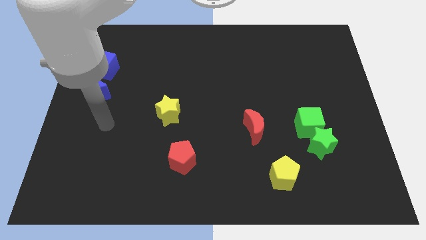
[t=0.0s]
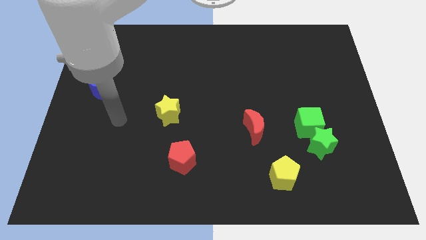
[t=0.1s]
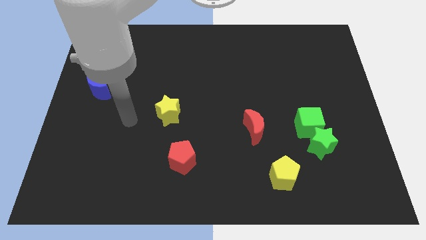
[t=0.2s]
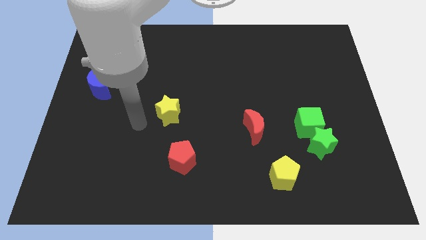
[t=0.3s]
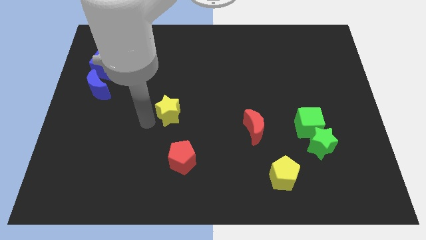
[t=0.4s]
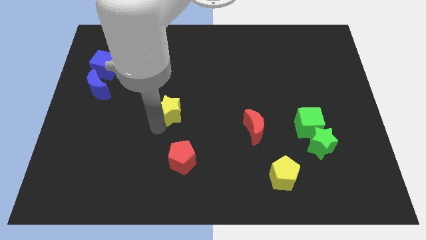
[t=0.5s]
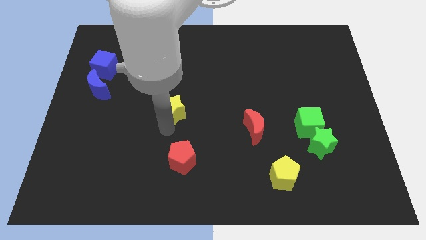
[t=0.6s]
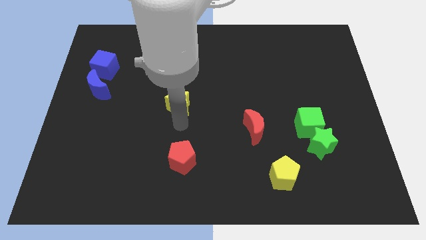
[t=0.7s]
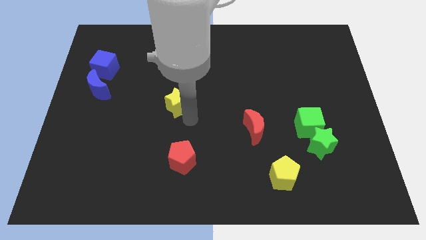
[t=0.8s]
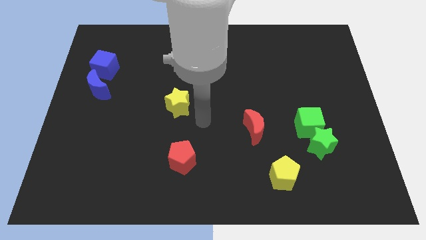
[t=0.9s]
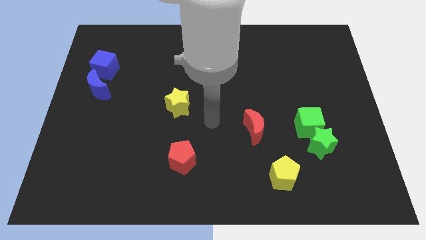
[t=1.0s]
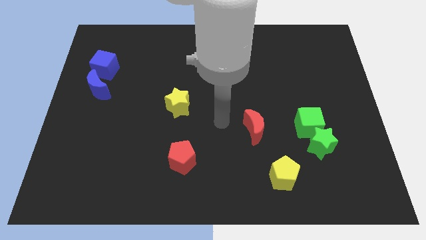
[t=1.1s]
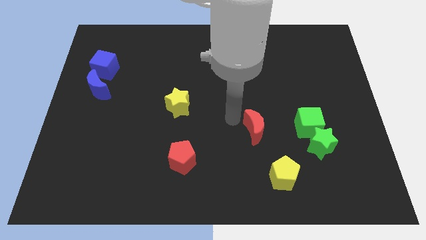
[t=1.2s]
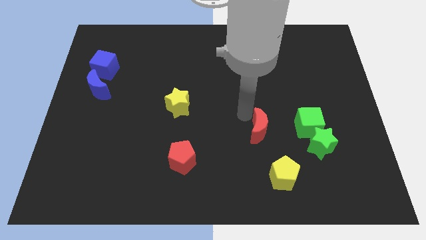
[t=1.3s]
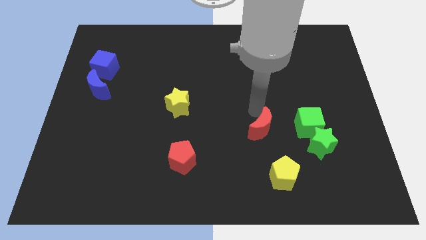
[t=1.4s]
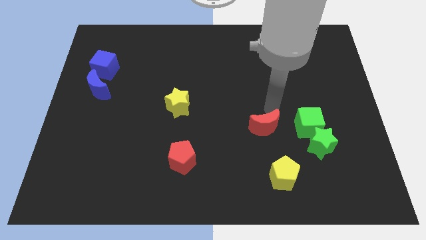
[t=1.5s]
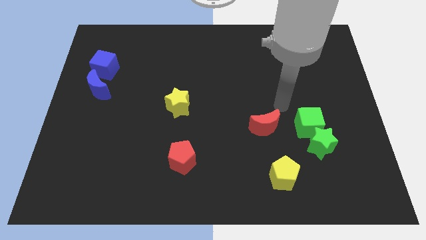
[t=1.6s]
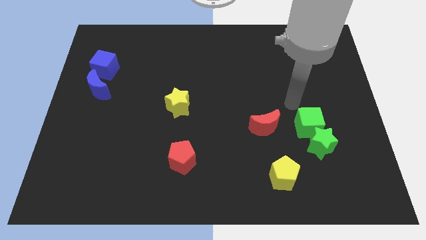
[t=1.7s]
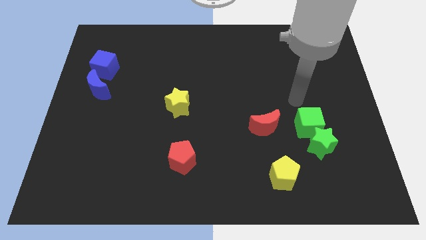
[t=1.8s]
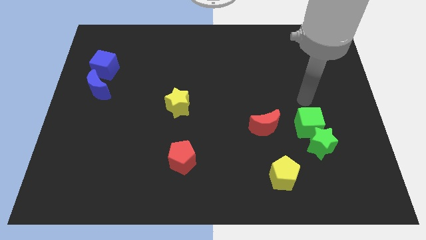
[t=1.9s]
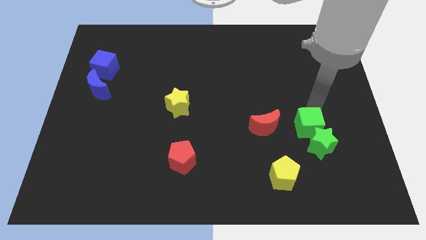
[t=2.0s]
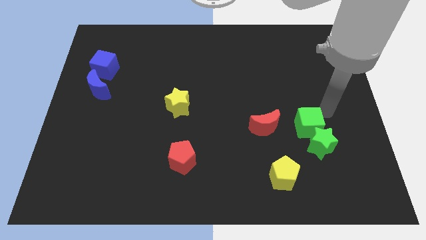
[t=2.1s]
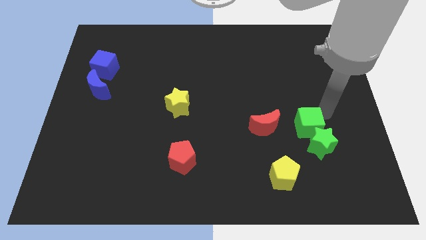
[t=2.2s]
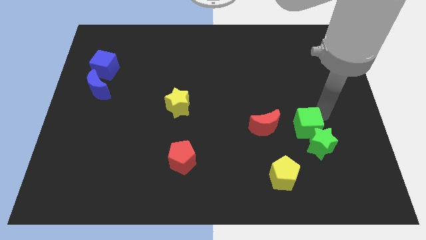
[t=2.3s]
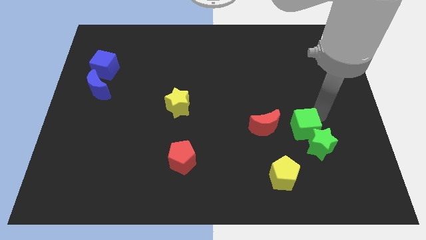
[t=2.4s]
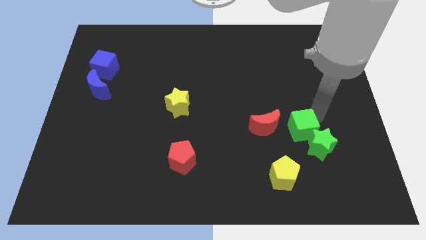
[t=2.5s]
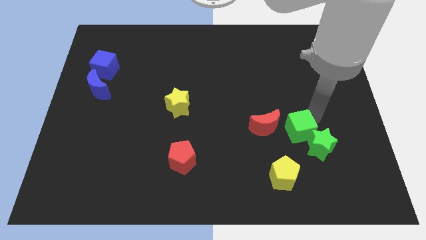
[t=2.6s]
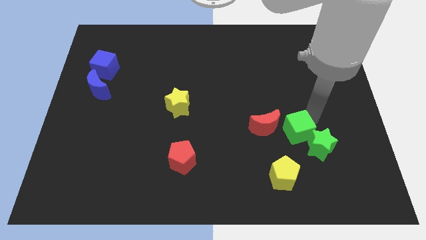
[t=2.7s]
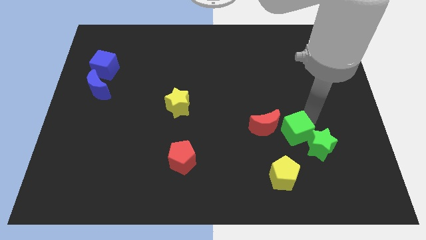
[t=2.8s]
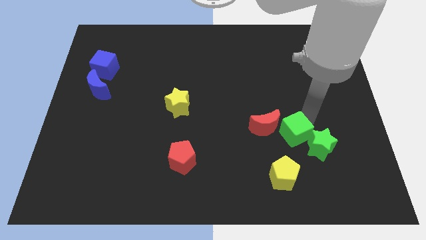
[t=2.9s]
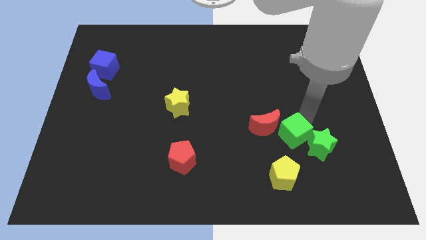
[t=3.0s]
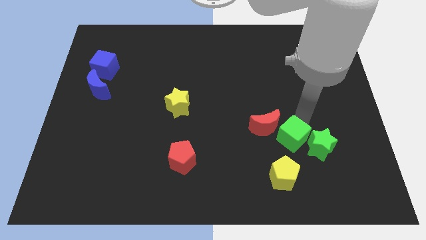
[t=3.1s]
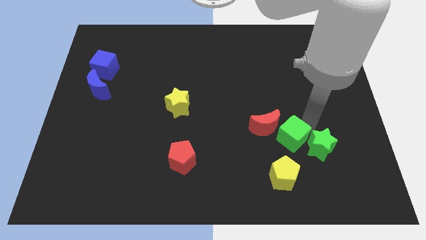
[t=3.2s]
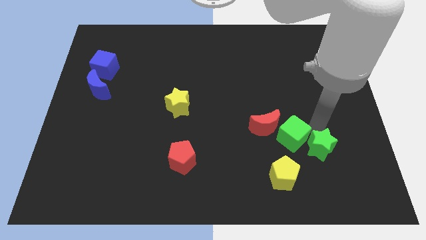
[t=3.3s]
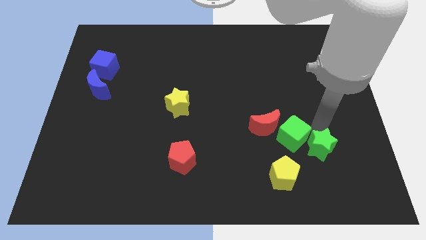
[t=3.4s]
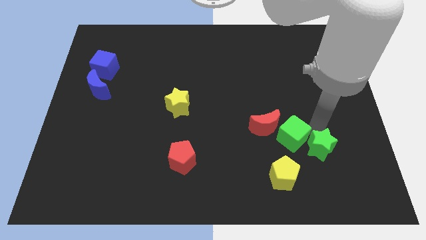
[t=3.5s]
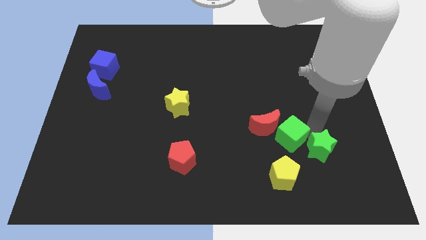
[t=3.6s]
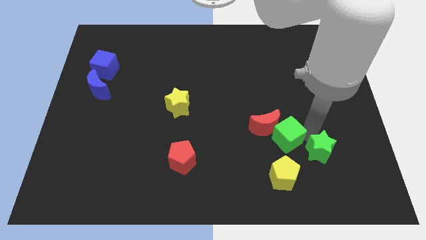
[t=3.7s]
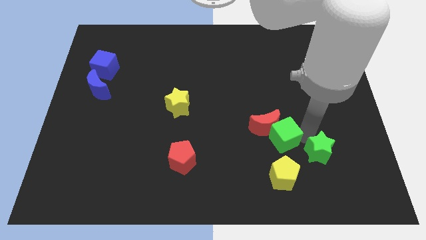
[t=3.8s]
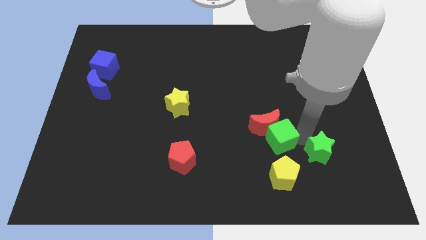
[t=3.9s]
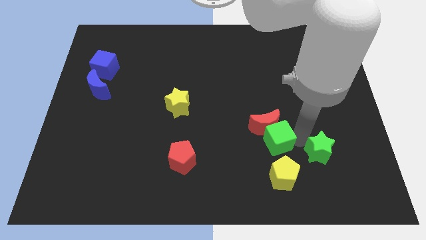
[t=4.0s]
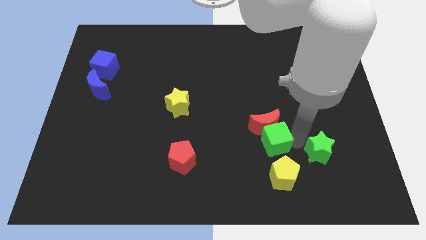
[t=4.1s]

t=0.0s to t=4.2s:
push the green cube left a bit

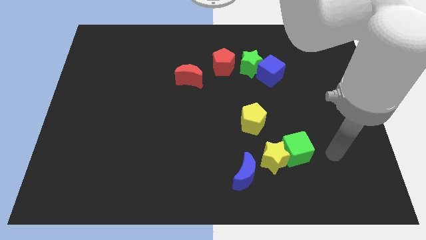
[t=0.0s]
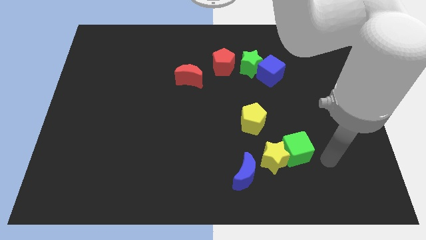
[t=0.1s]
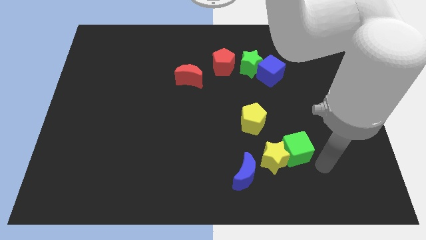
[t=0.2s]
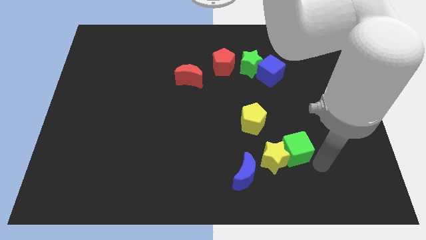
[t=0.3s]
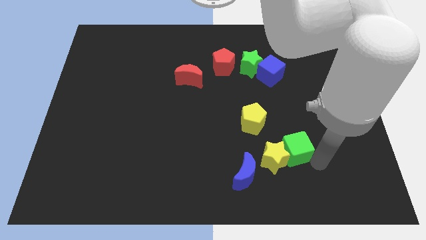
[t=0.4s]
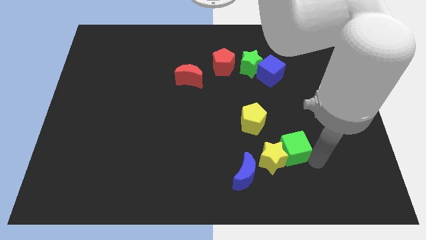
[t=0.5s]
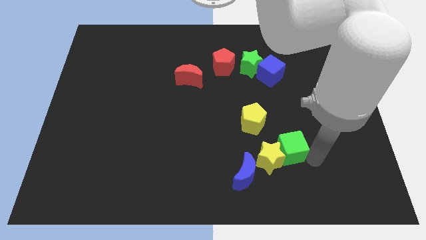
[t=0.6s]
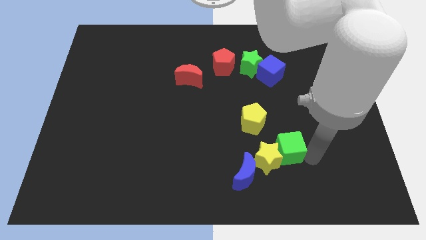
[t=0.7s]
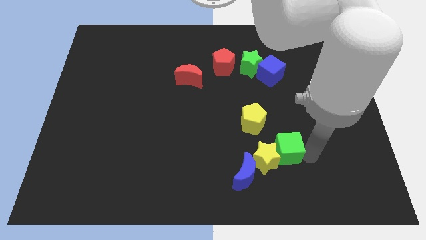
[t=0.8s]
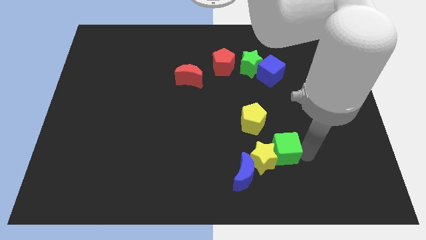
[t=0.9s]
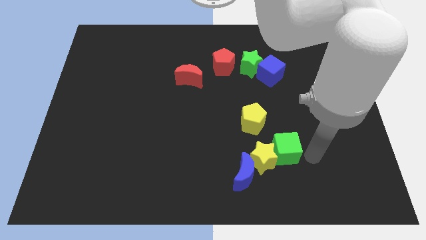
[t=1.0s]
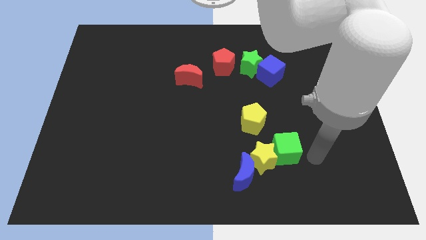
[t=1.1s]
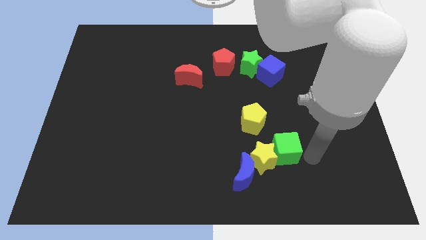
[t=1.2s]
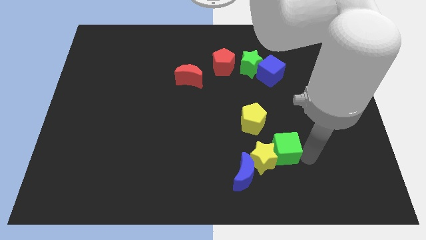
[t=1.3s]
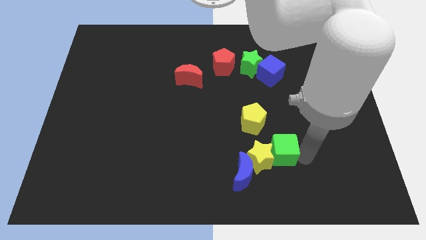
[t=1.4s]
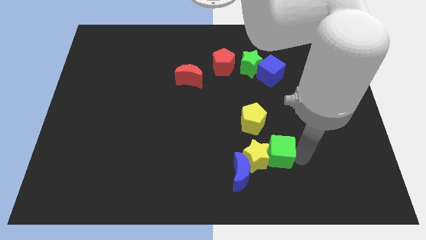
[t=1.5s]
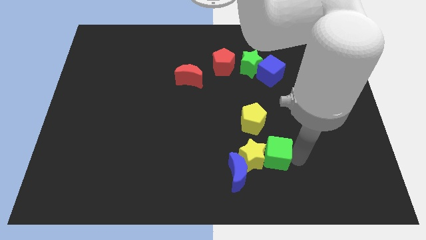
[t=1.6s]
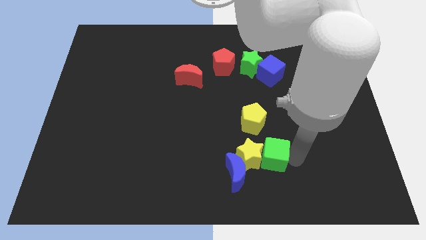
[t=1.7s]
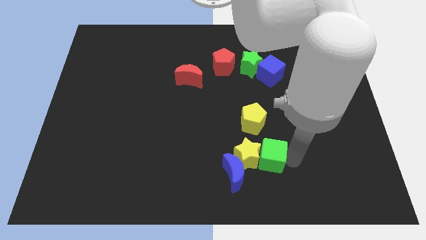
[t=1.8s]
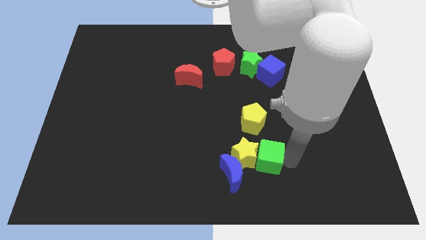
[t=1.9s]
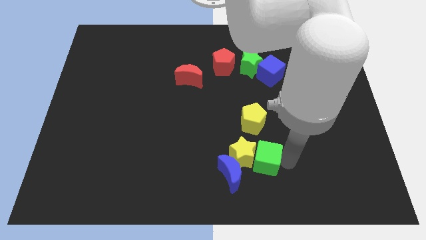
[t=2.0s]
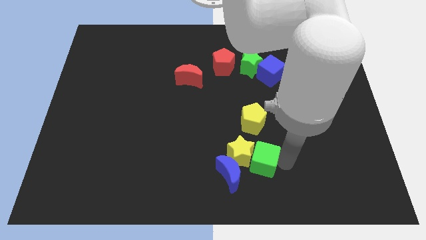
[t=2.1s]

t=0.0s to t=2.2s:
slide the green cube to the left somewhat

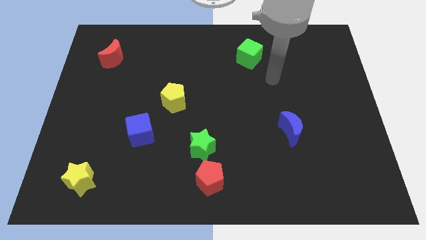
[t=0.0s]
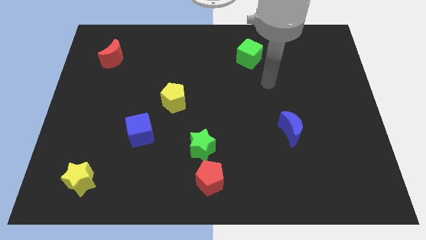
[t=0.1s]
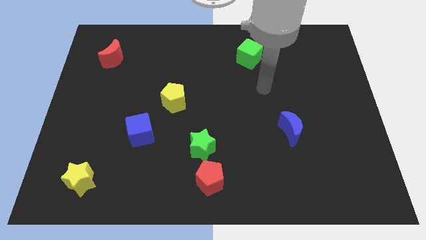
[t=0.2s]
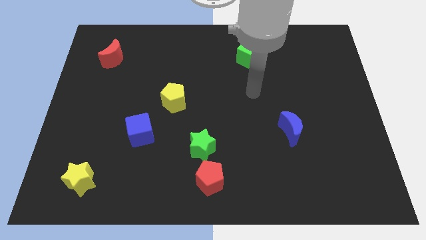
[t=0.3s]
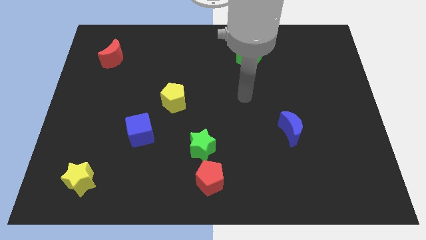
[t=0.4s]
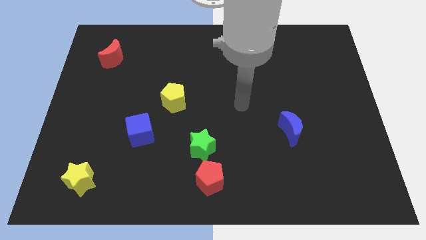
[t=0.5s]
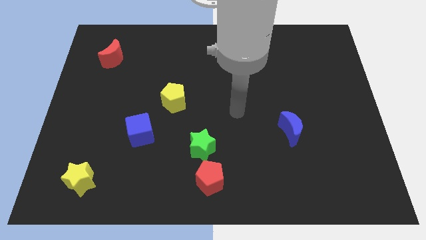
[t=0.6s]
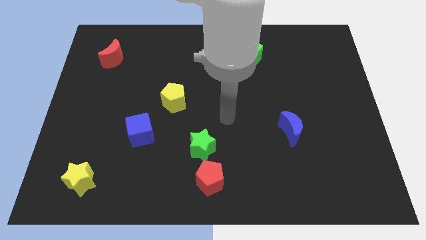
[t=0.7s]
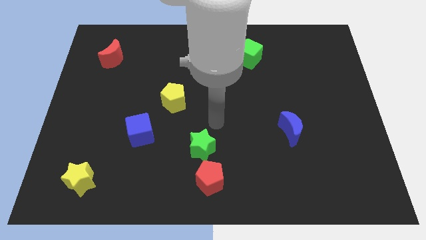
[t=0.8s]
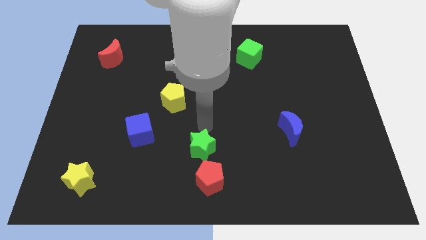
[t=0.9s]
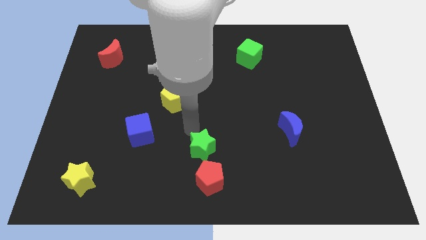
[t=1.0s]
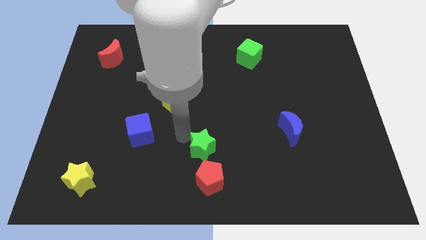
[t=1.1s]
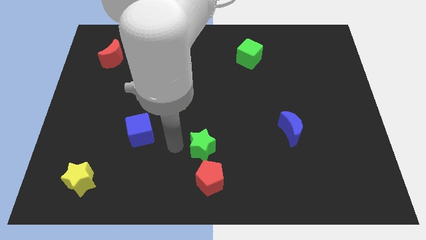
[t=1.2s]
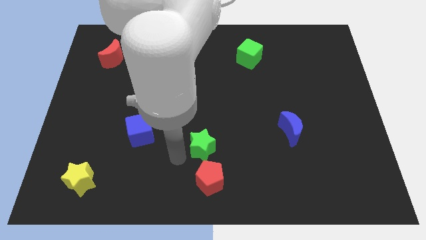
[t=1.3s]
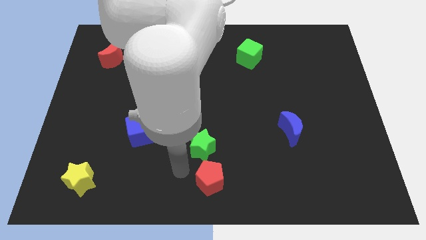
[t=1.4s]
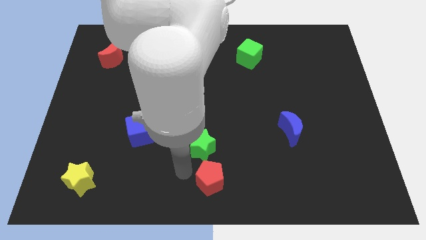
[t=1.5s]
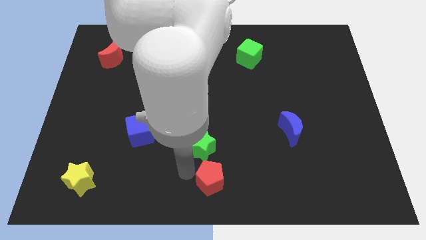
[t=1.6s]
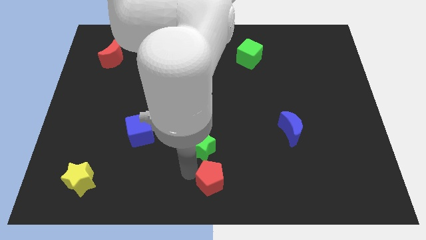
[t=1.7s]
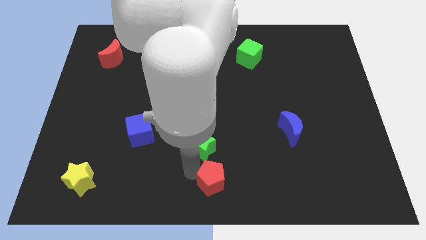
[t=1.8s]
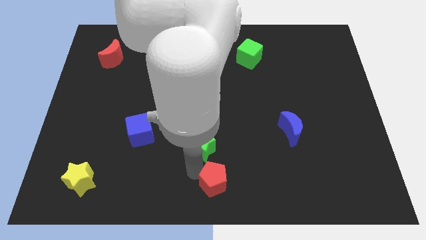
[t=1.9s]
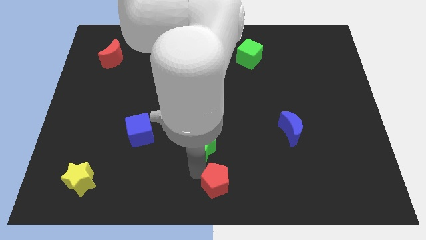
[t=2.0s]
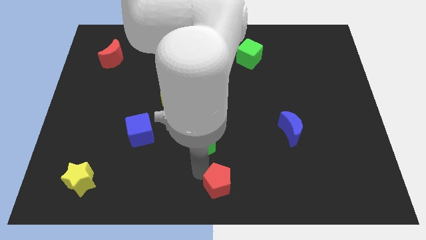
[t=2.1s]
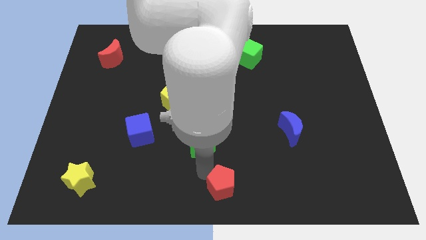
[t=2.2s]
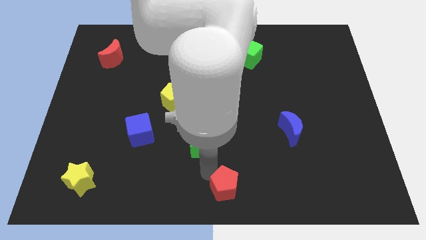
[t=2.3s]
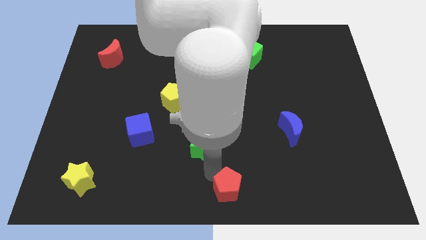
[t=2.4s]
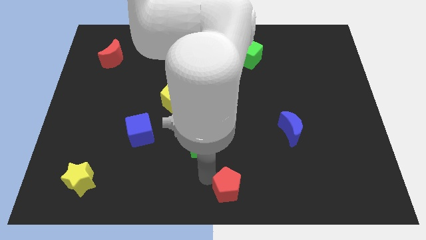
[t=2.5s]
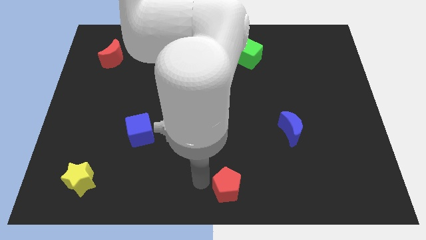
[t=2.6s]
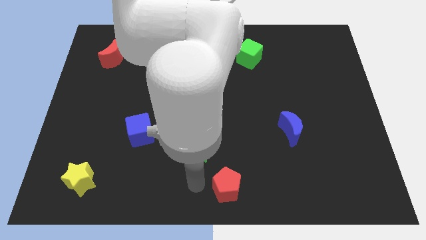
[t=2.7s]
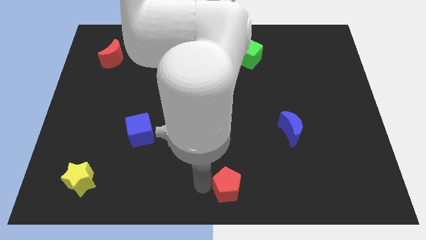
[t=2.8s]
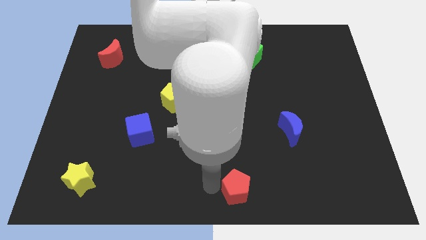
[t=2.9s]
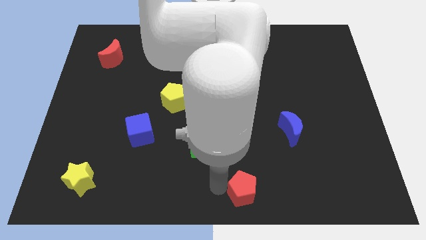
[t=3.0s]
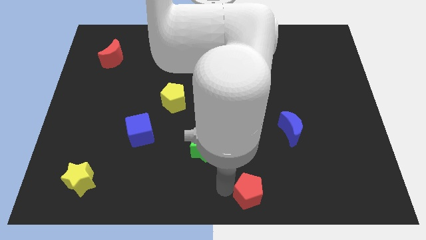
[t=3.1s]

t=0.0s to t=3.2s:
move the red pentagon somewhat to the right
